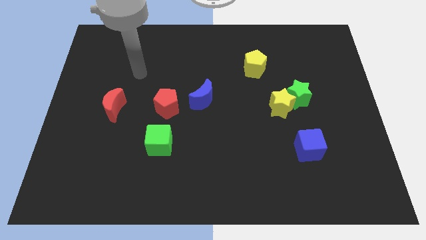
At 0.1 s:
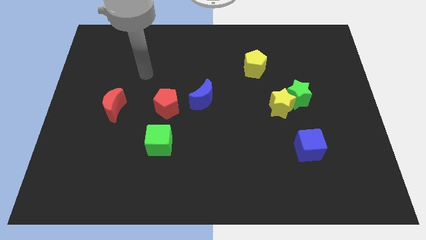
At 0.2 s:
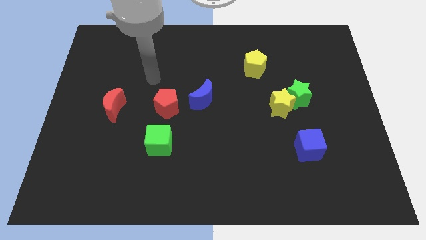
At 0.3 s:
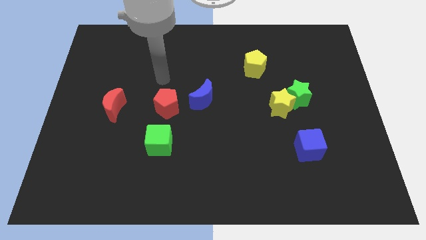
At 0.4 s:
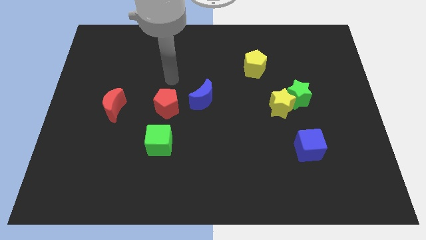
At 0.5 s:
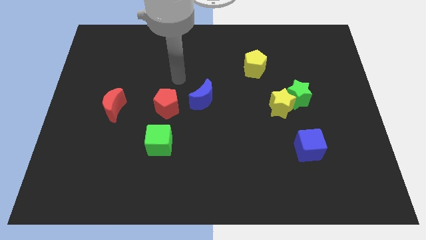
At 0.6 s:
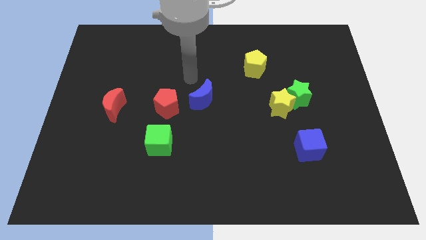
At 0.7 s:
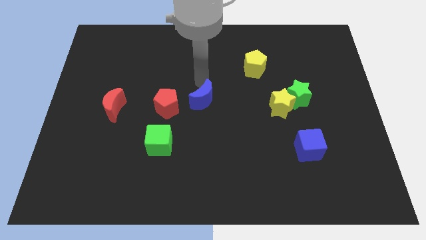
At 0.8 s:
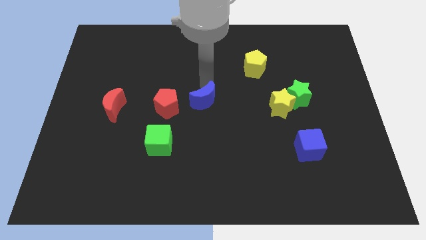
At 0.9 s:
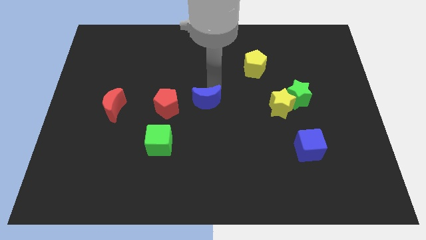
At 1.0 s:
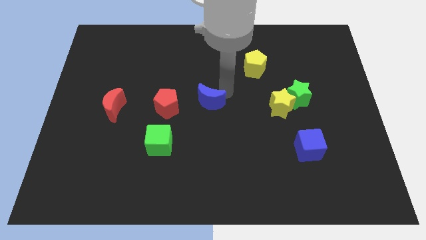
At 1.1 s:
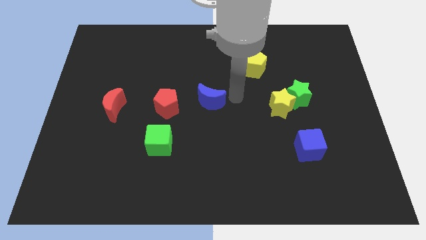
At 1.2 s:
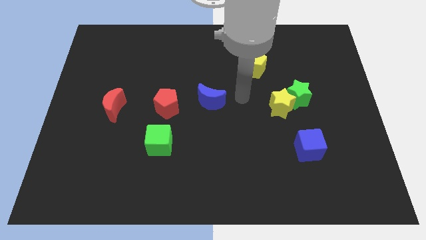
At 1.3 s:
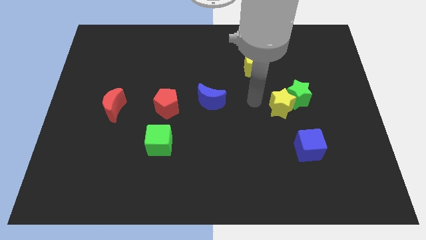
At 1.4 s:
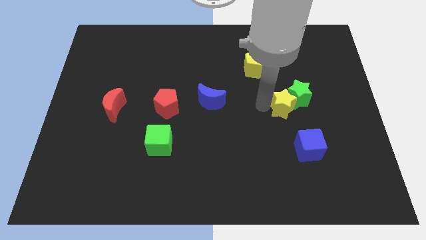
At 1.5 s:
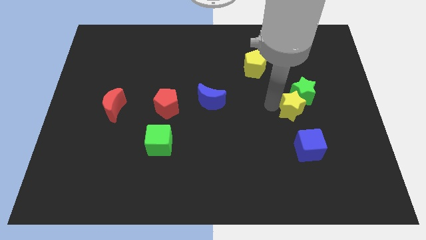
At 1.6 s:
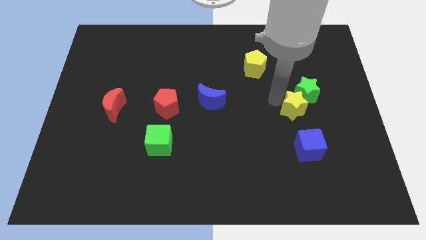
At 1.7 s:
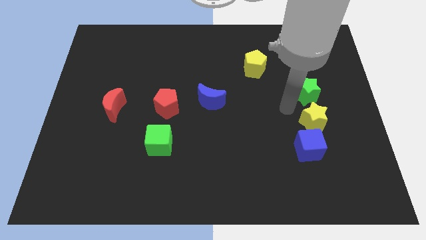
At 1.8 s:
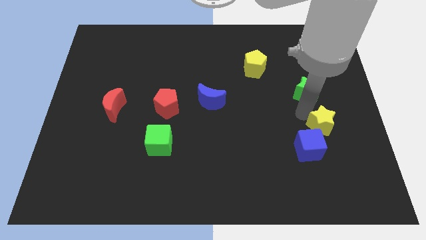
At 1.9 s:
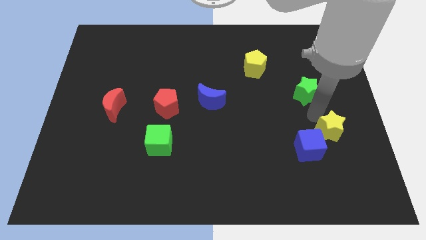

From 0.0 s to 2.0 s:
pull the green star apart from the yellow star

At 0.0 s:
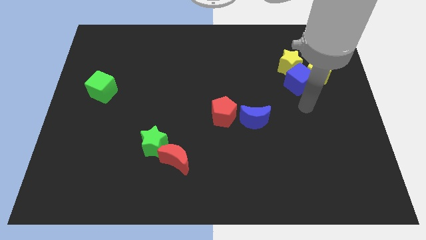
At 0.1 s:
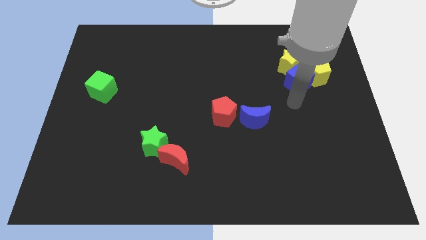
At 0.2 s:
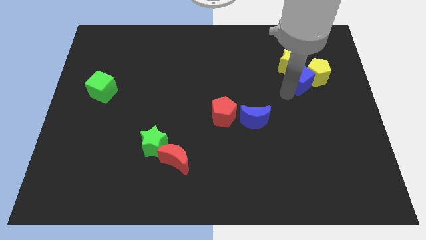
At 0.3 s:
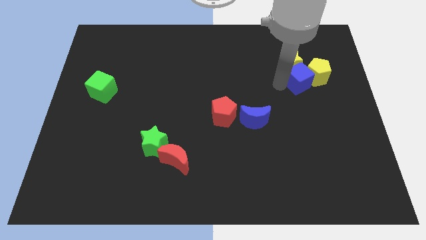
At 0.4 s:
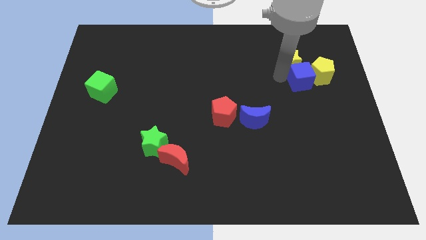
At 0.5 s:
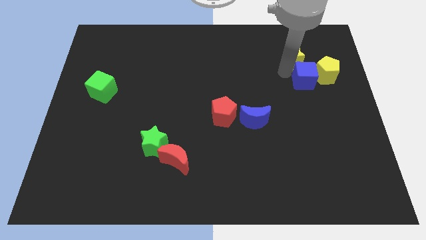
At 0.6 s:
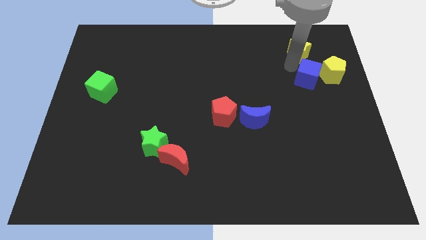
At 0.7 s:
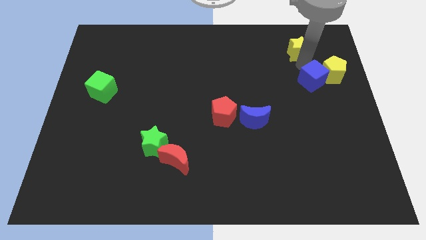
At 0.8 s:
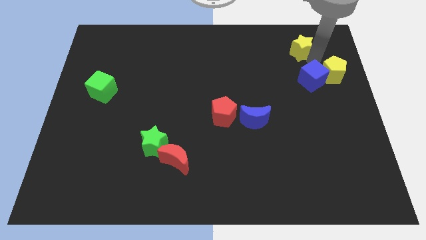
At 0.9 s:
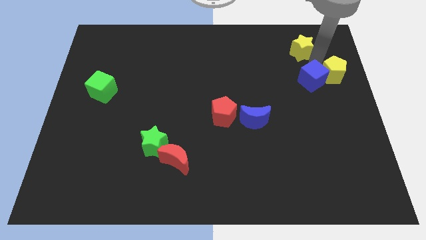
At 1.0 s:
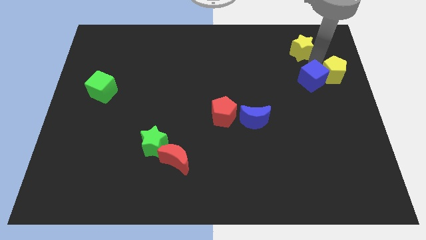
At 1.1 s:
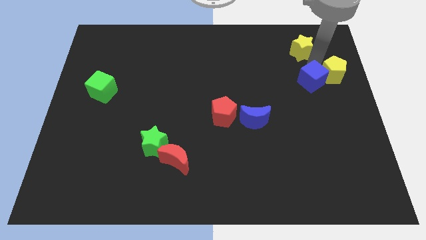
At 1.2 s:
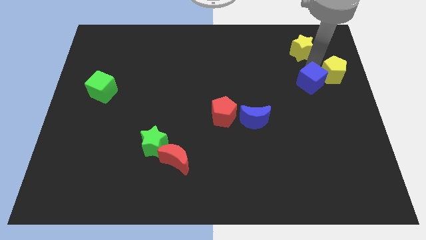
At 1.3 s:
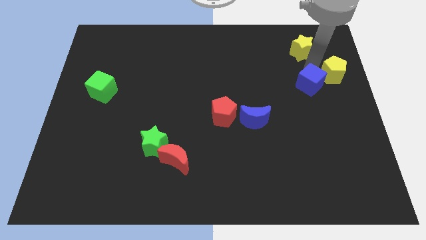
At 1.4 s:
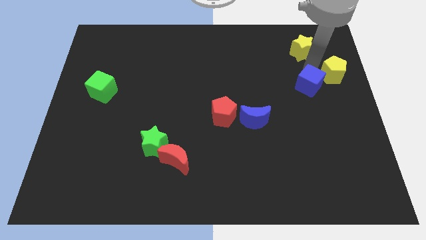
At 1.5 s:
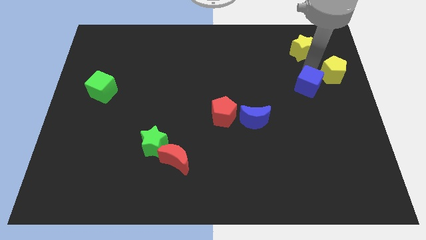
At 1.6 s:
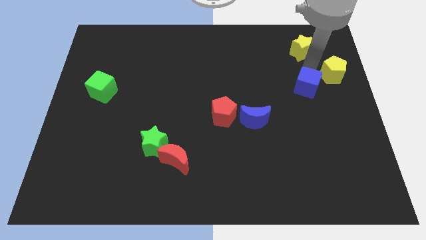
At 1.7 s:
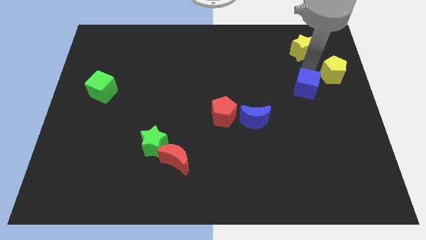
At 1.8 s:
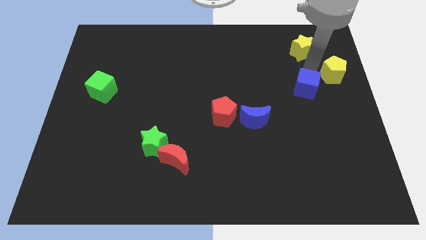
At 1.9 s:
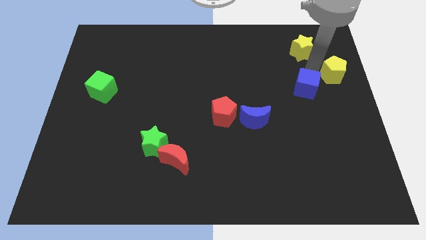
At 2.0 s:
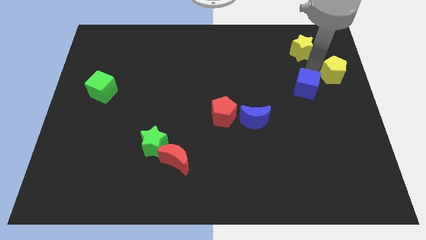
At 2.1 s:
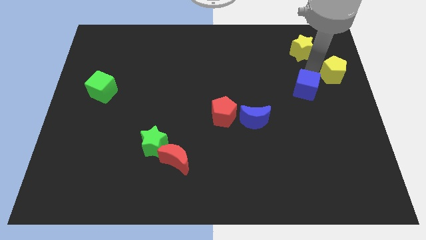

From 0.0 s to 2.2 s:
move the blue cube away from the yellow pentagon and yellow star

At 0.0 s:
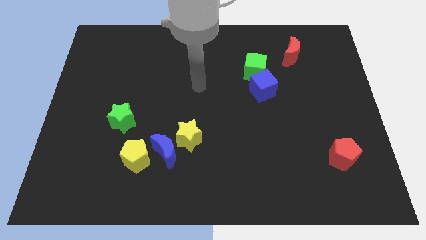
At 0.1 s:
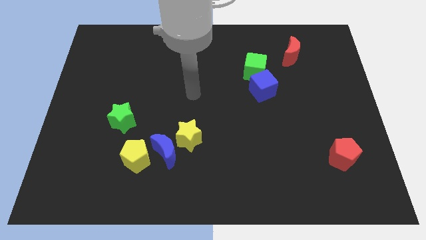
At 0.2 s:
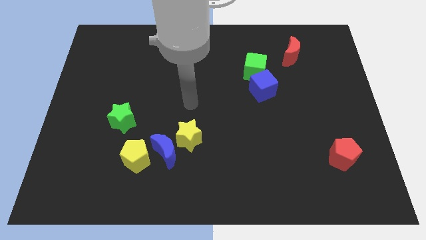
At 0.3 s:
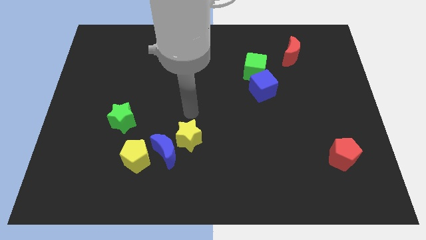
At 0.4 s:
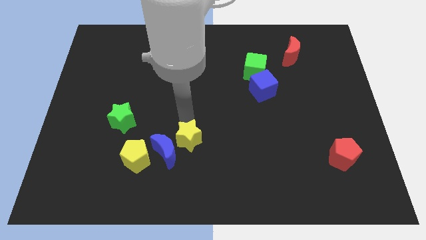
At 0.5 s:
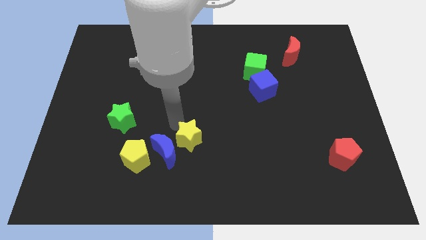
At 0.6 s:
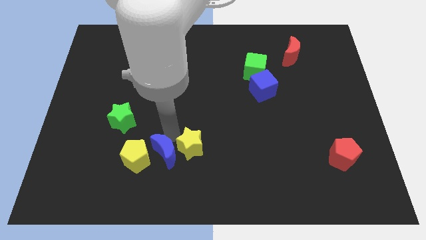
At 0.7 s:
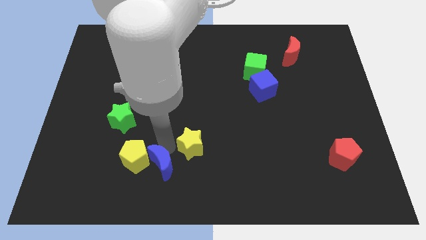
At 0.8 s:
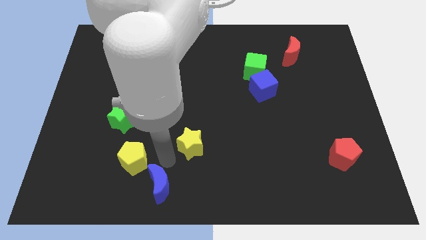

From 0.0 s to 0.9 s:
move the yellow star away from the blue moon

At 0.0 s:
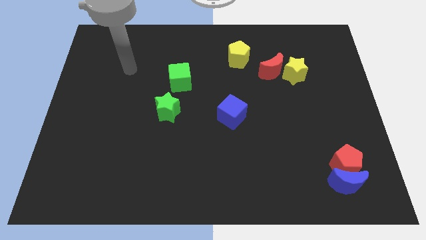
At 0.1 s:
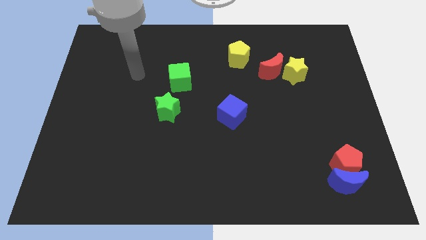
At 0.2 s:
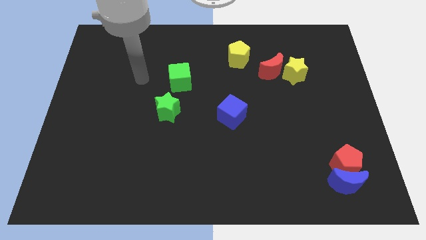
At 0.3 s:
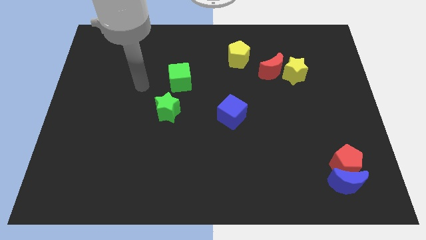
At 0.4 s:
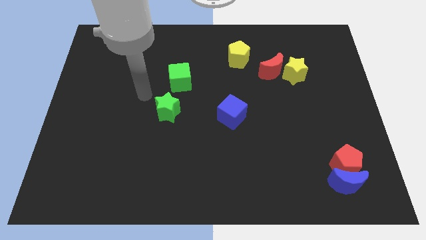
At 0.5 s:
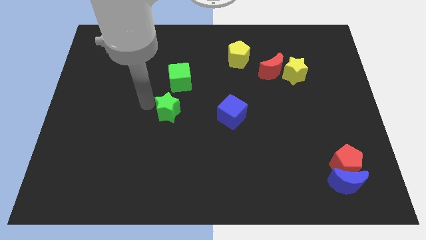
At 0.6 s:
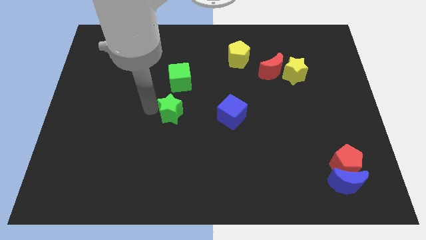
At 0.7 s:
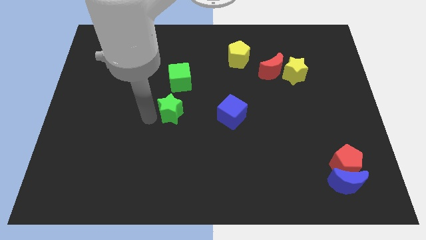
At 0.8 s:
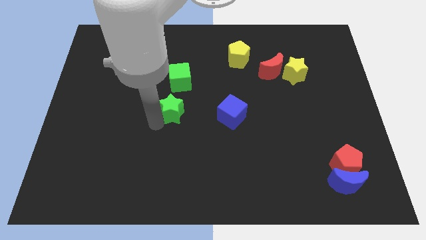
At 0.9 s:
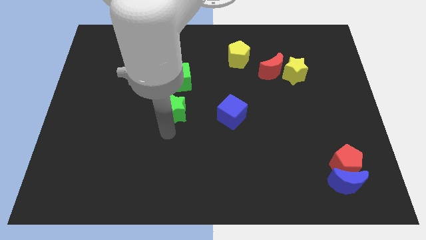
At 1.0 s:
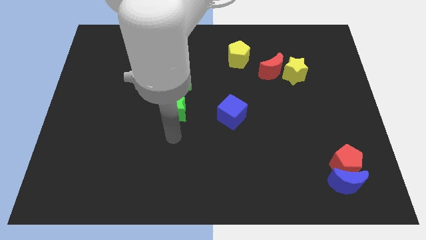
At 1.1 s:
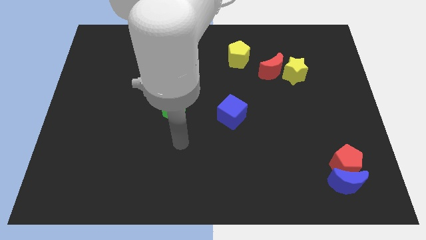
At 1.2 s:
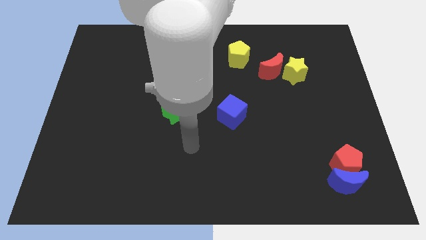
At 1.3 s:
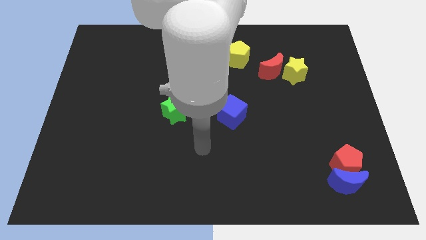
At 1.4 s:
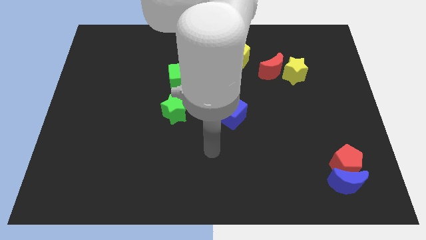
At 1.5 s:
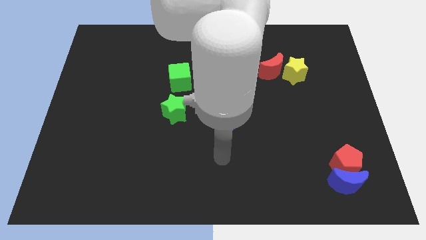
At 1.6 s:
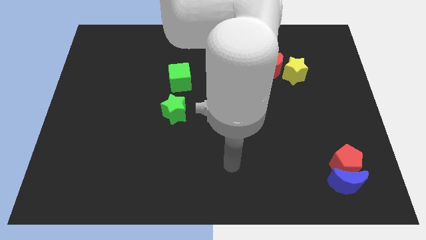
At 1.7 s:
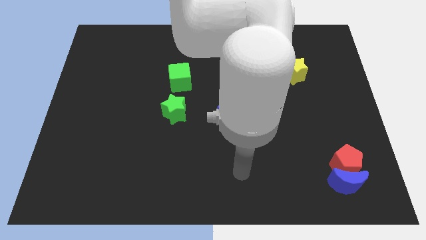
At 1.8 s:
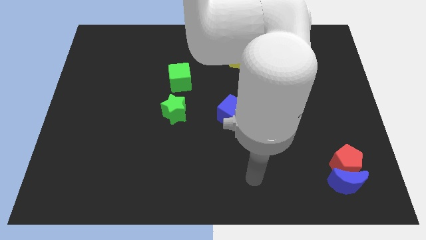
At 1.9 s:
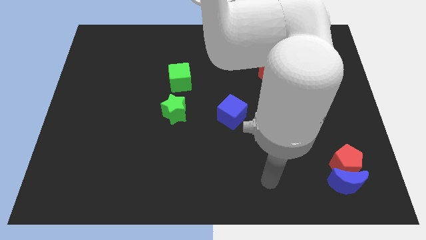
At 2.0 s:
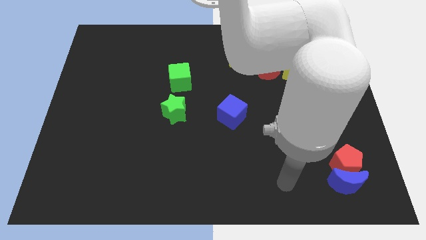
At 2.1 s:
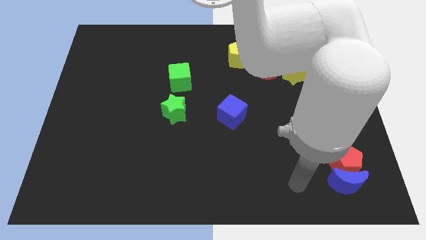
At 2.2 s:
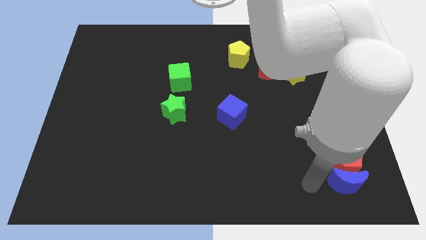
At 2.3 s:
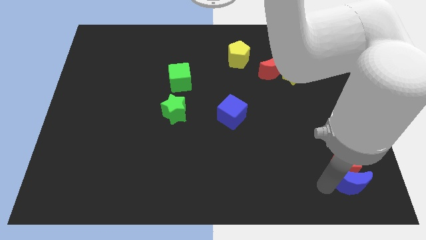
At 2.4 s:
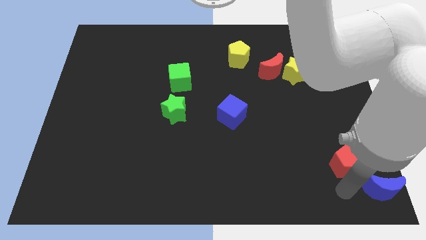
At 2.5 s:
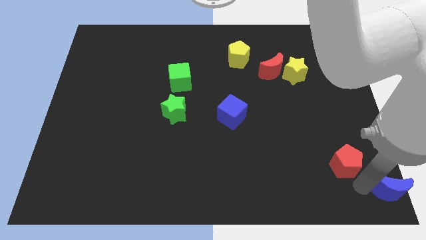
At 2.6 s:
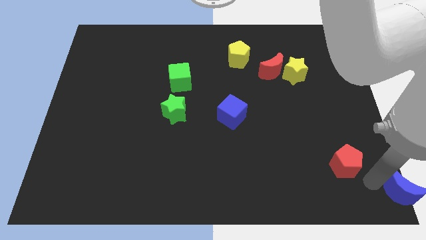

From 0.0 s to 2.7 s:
separate the red pentagon from the blue moon

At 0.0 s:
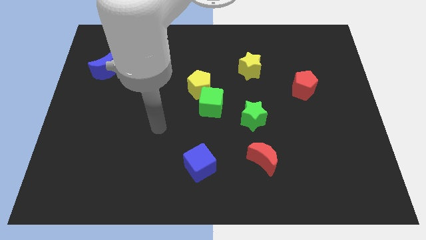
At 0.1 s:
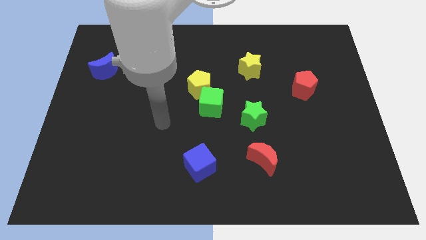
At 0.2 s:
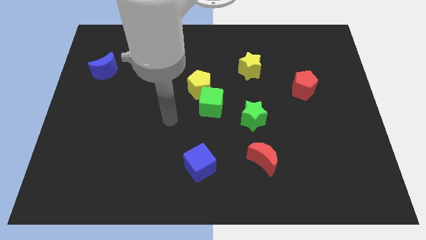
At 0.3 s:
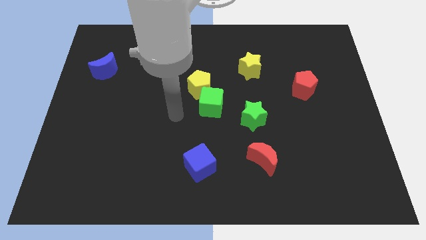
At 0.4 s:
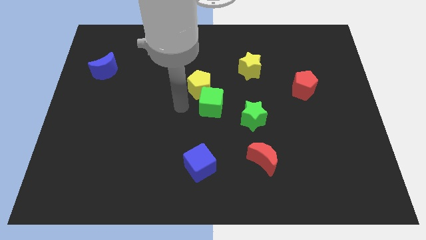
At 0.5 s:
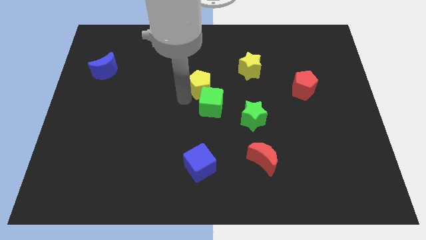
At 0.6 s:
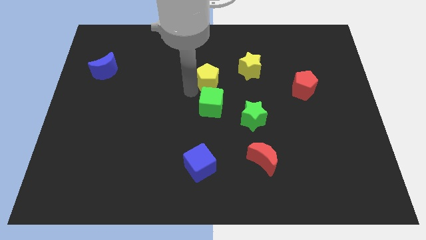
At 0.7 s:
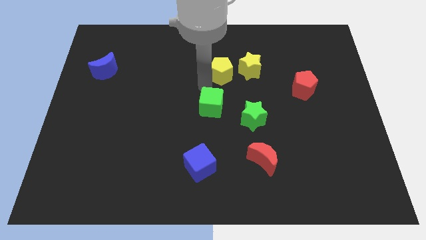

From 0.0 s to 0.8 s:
separate the green cube from the yellow pentagon

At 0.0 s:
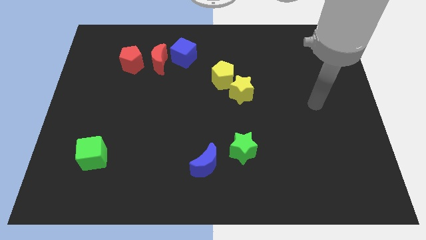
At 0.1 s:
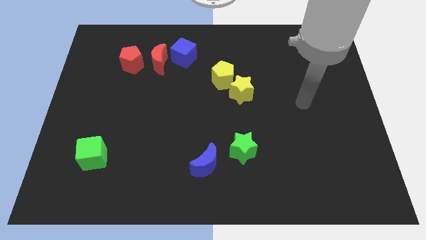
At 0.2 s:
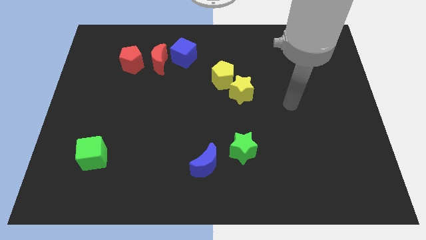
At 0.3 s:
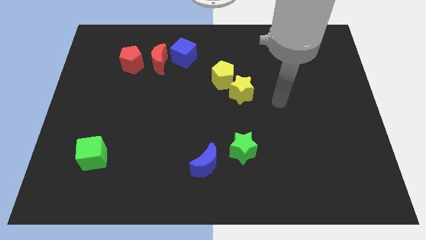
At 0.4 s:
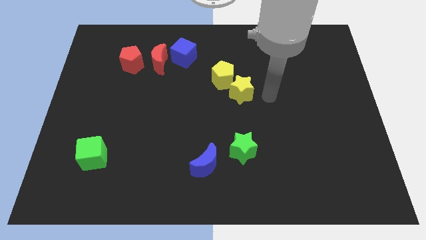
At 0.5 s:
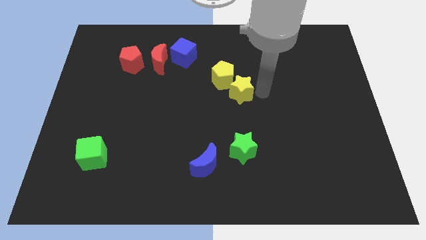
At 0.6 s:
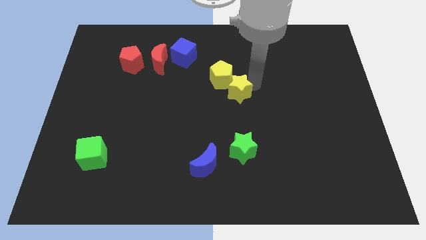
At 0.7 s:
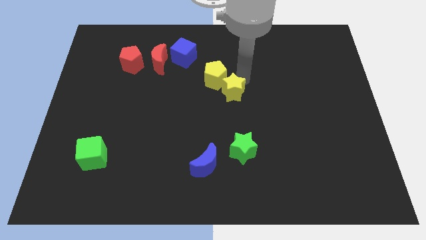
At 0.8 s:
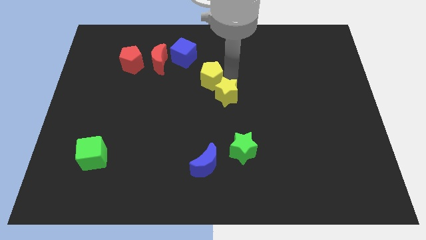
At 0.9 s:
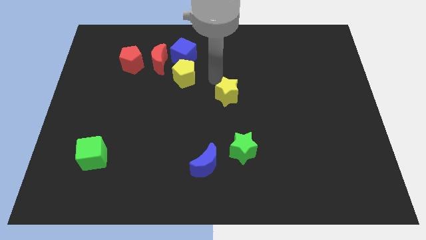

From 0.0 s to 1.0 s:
separate the yellow star from the yellow pentagon
